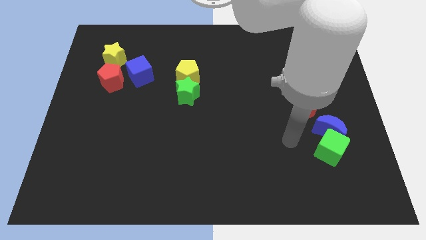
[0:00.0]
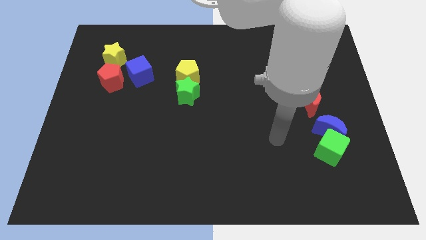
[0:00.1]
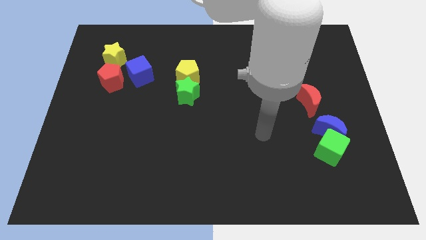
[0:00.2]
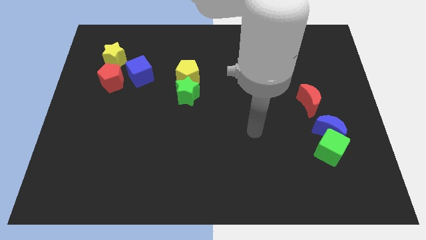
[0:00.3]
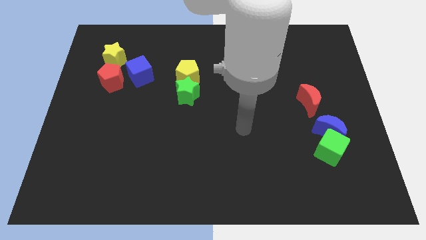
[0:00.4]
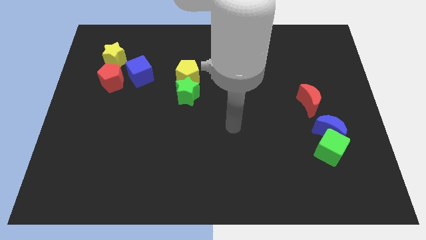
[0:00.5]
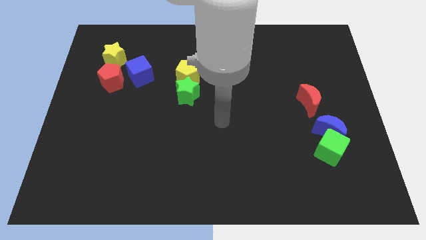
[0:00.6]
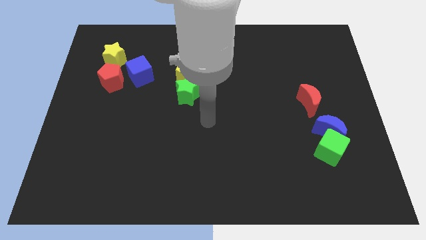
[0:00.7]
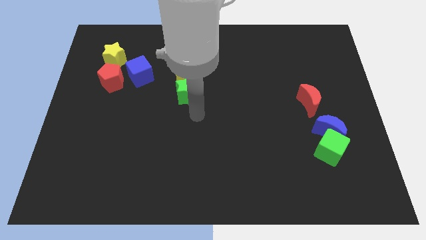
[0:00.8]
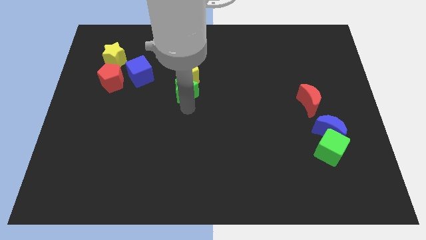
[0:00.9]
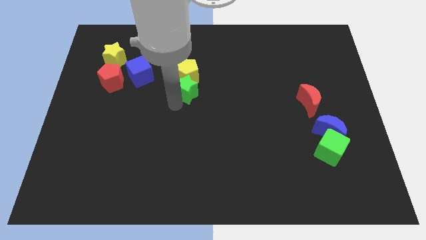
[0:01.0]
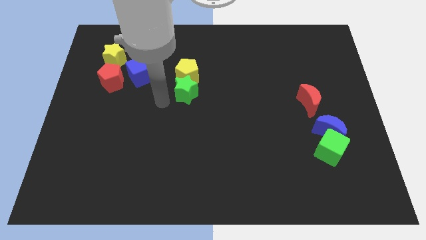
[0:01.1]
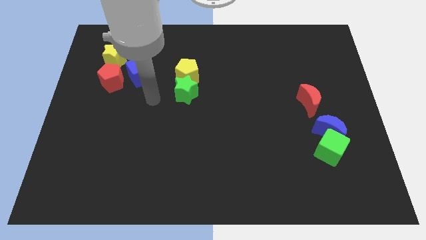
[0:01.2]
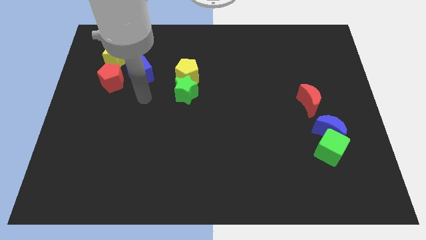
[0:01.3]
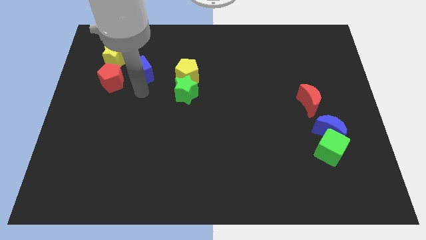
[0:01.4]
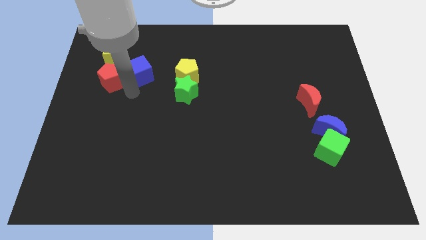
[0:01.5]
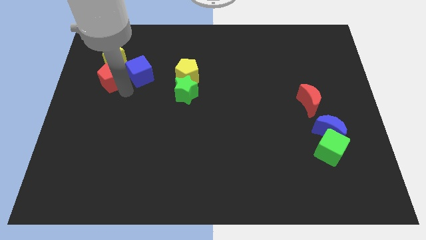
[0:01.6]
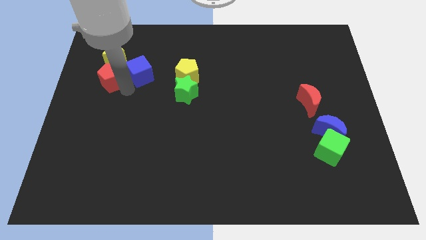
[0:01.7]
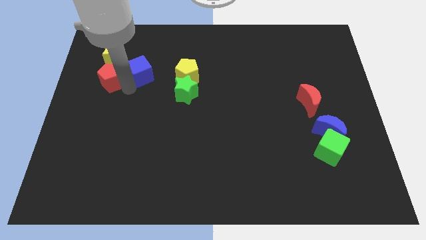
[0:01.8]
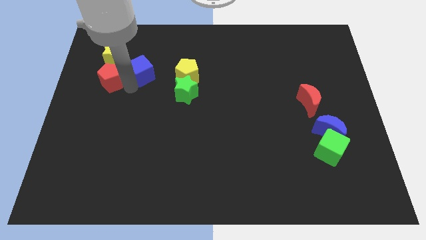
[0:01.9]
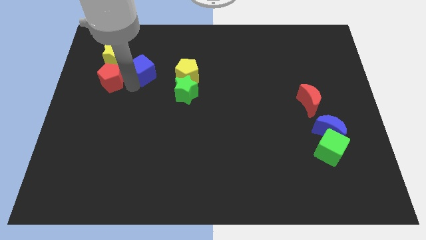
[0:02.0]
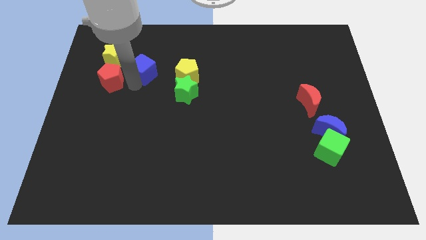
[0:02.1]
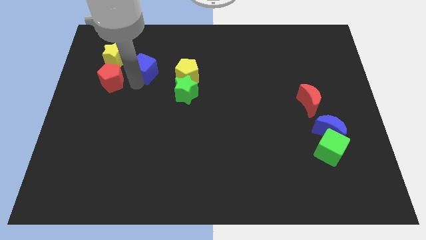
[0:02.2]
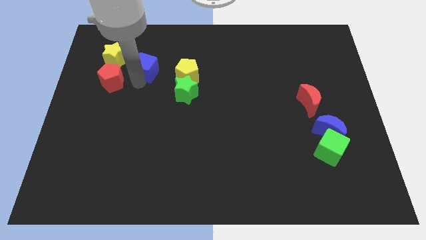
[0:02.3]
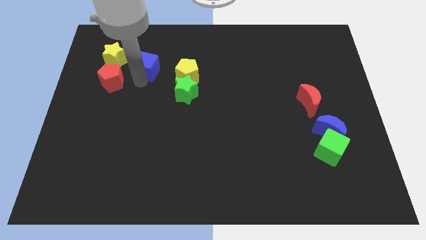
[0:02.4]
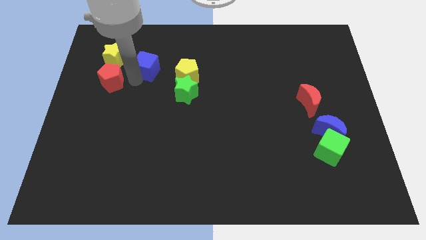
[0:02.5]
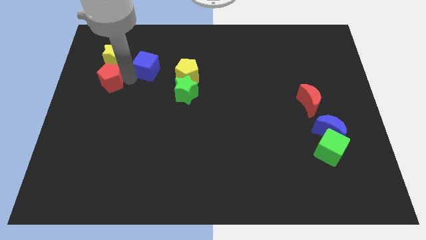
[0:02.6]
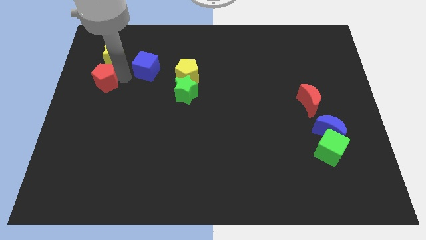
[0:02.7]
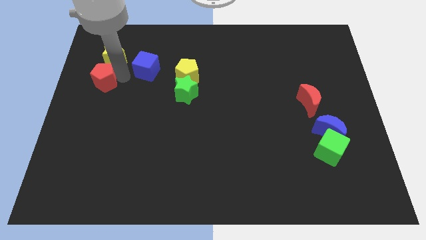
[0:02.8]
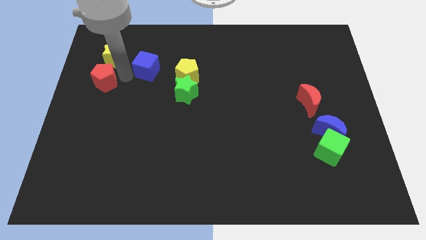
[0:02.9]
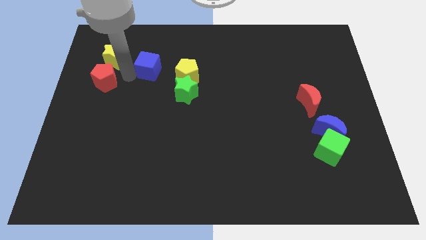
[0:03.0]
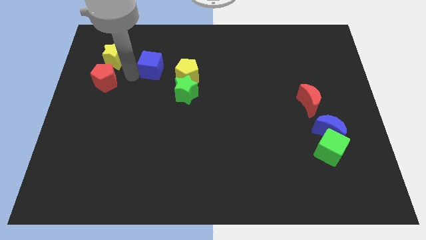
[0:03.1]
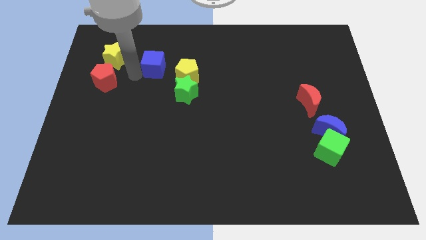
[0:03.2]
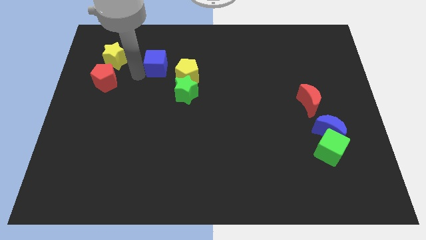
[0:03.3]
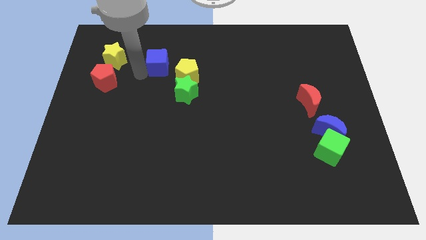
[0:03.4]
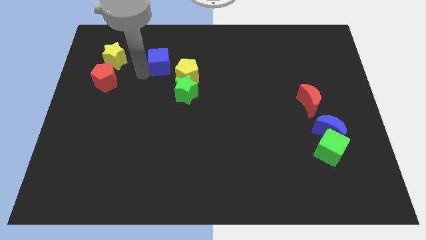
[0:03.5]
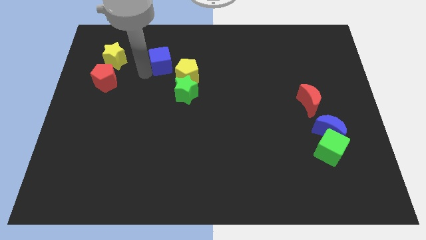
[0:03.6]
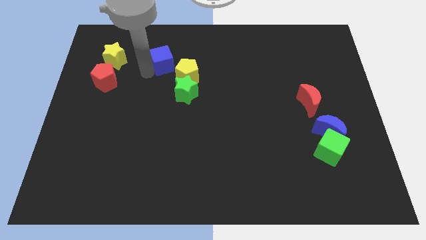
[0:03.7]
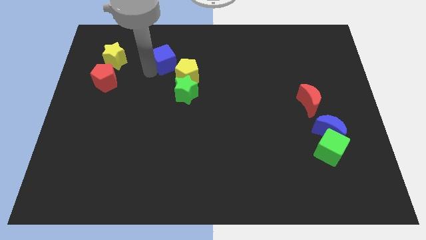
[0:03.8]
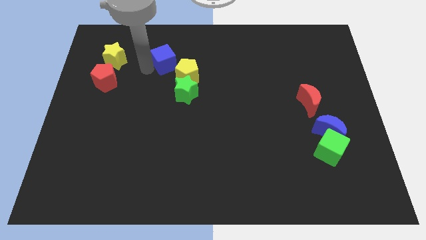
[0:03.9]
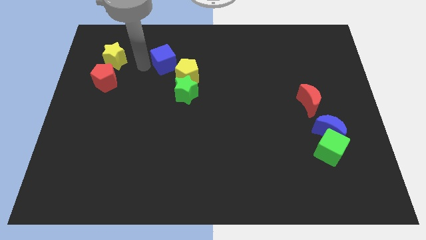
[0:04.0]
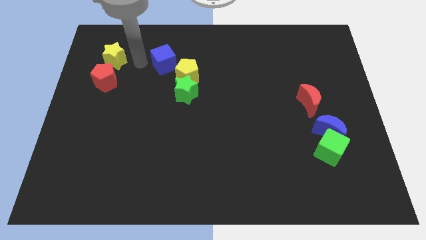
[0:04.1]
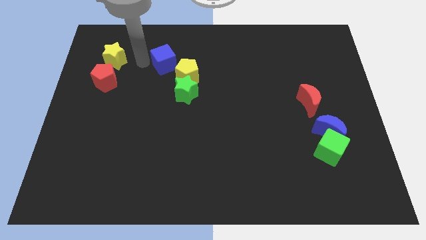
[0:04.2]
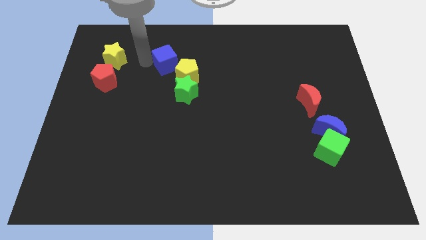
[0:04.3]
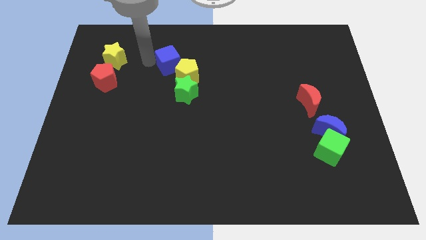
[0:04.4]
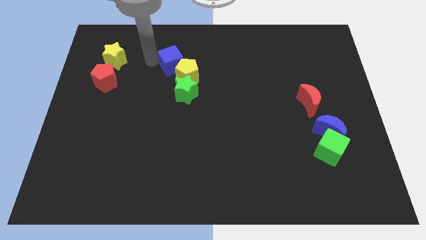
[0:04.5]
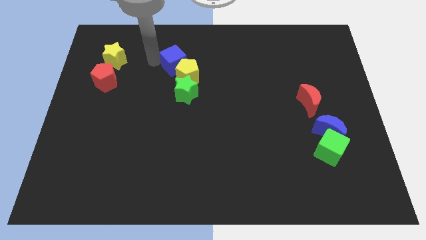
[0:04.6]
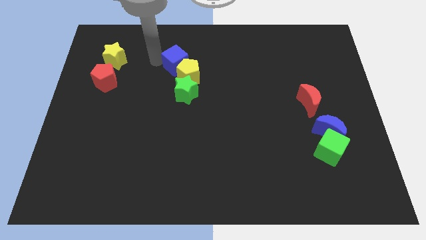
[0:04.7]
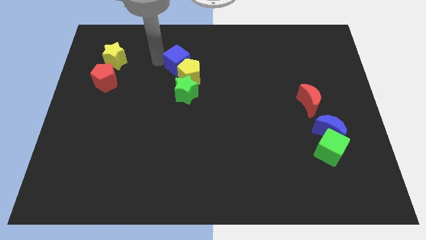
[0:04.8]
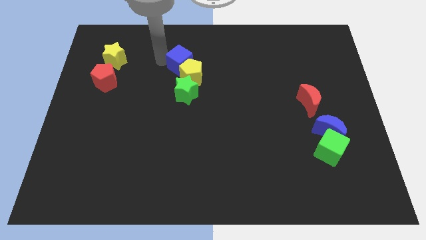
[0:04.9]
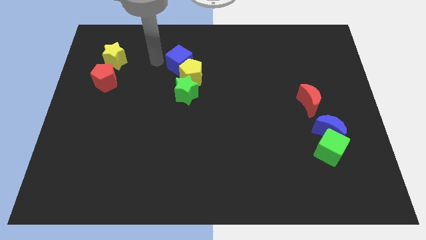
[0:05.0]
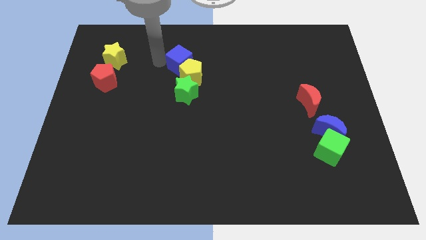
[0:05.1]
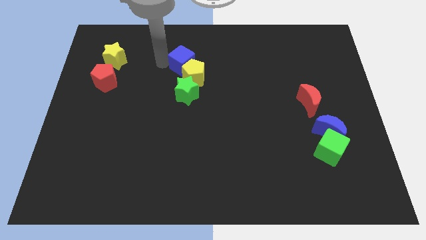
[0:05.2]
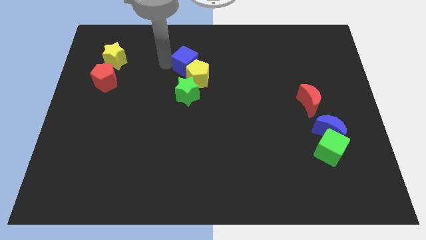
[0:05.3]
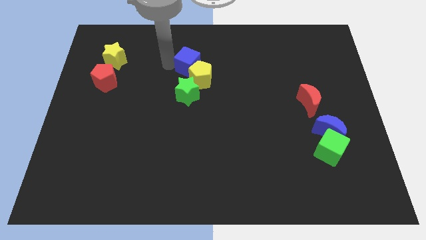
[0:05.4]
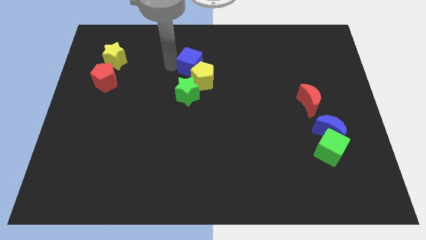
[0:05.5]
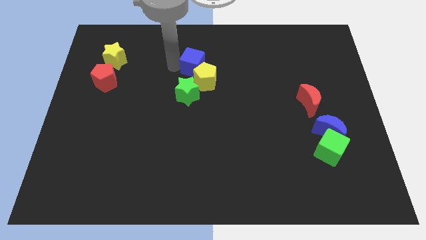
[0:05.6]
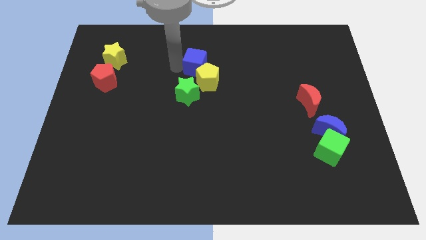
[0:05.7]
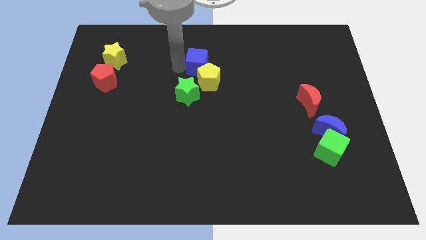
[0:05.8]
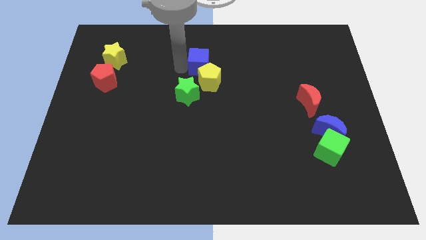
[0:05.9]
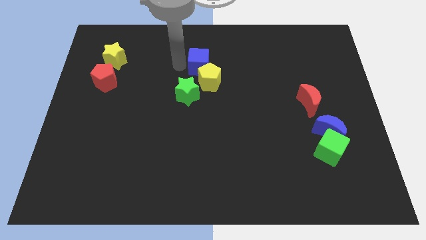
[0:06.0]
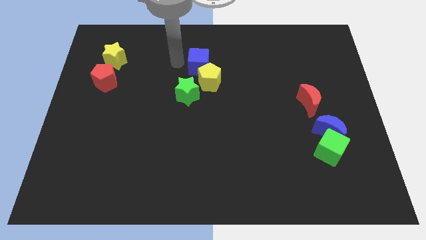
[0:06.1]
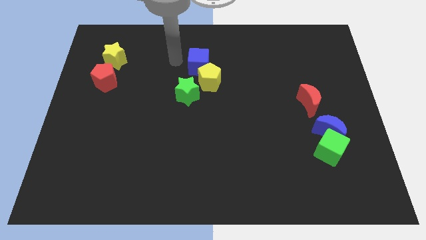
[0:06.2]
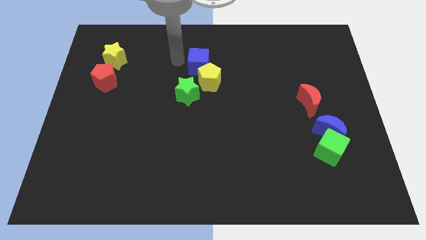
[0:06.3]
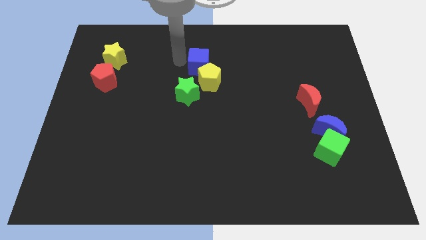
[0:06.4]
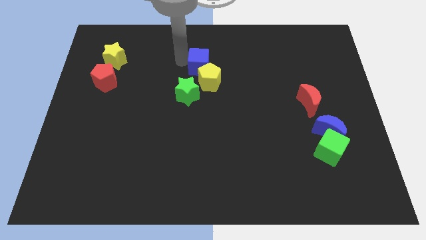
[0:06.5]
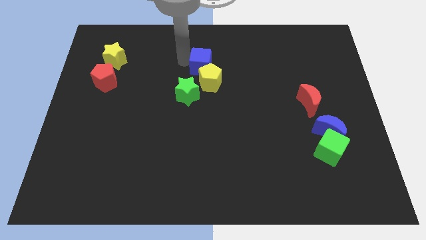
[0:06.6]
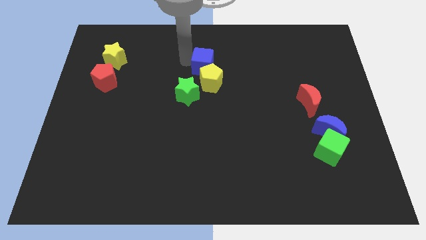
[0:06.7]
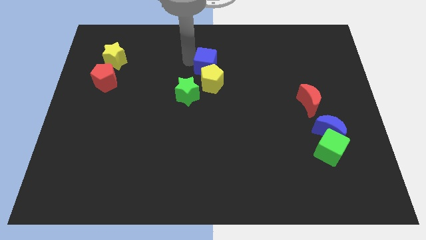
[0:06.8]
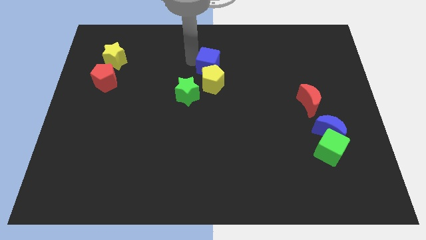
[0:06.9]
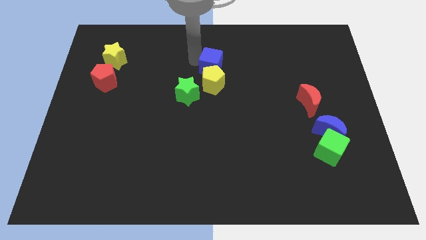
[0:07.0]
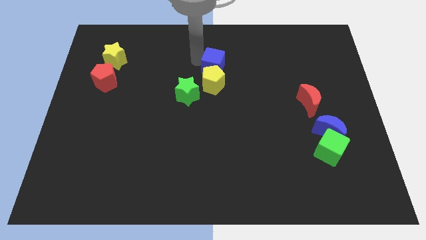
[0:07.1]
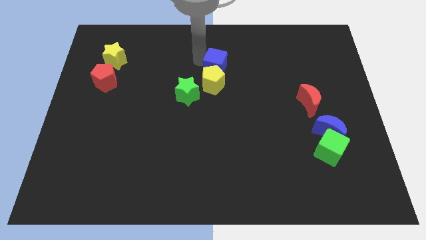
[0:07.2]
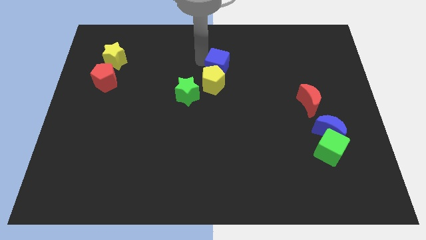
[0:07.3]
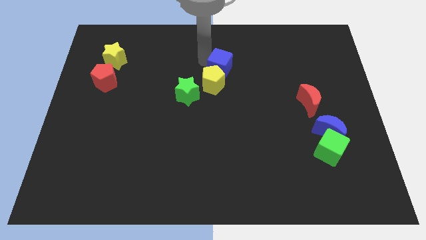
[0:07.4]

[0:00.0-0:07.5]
slide the blue cube right

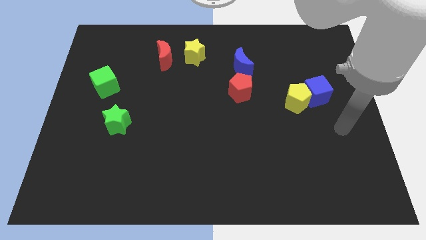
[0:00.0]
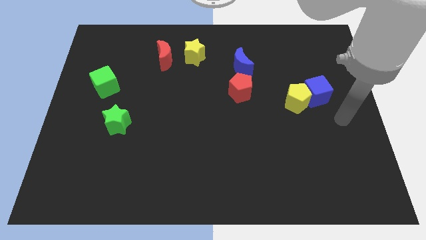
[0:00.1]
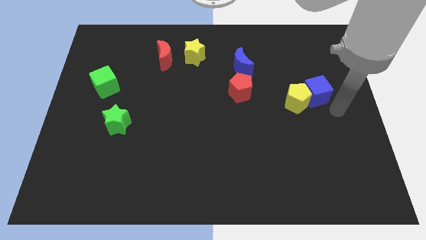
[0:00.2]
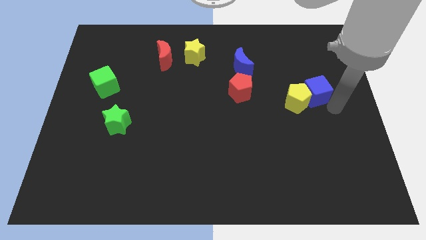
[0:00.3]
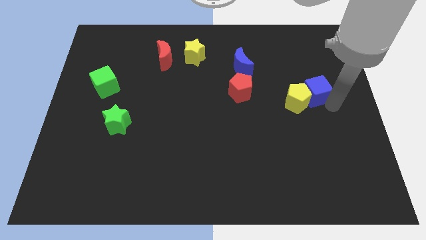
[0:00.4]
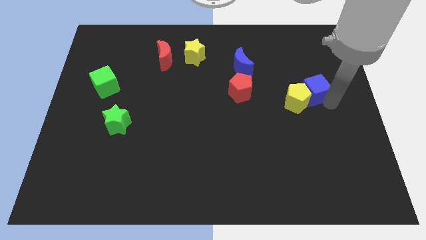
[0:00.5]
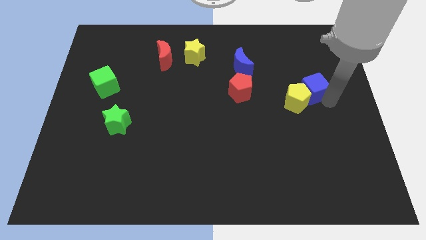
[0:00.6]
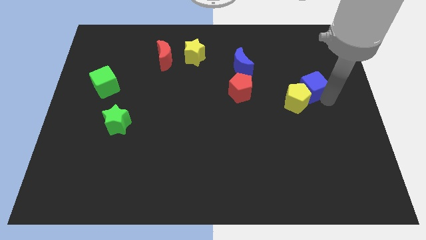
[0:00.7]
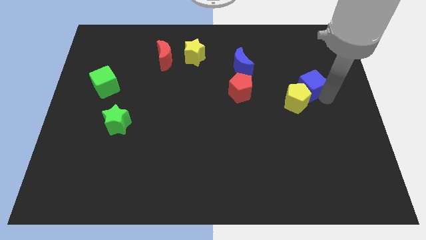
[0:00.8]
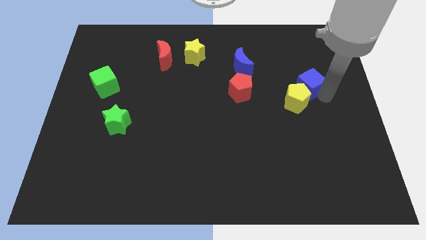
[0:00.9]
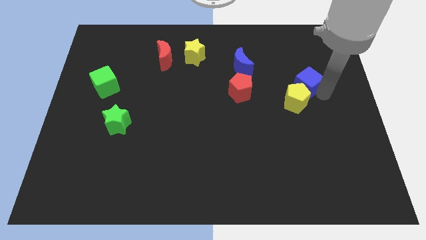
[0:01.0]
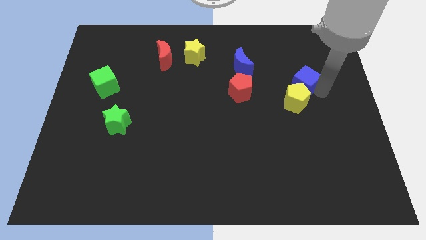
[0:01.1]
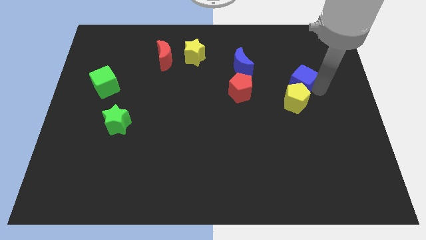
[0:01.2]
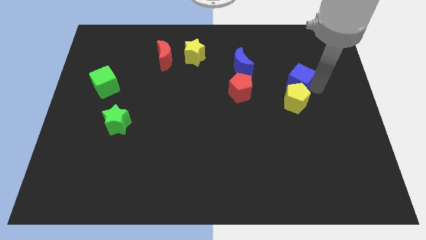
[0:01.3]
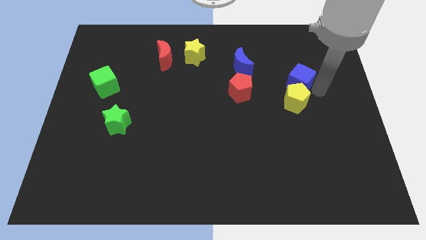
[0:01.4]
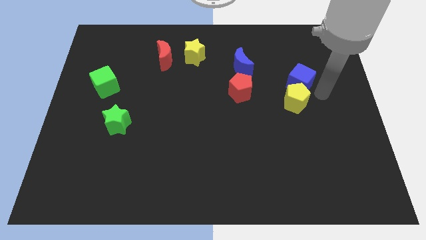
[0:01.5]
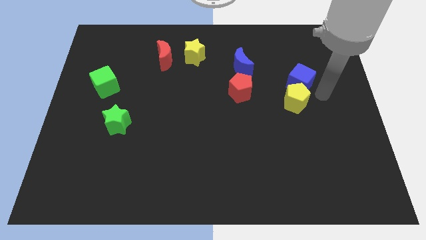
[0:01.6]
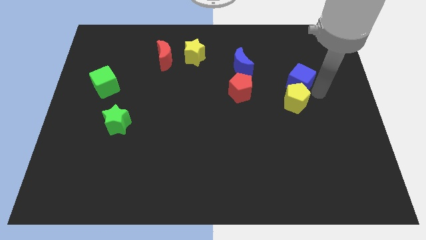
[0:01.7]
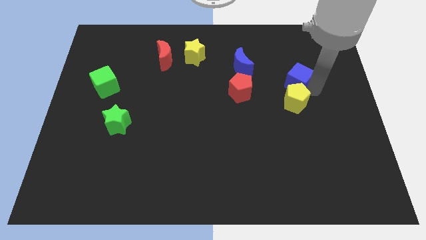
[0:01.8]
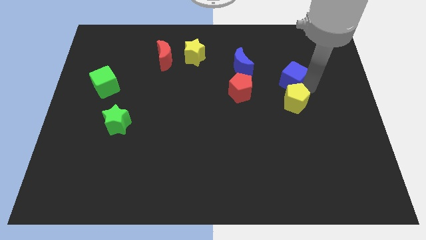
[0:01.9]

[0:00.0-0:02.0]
move the blue cube up and then to the left somewhat
